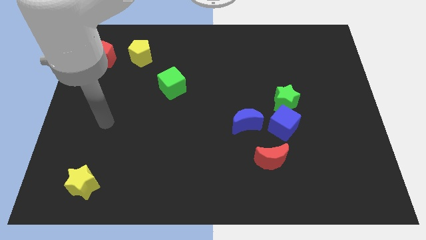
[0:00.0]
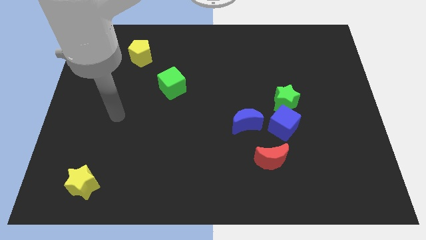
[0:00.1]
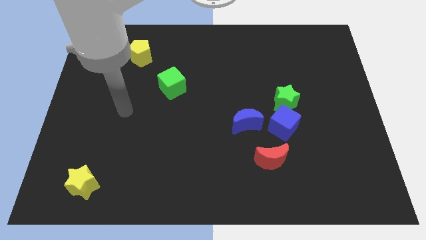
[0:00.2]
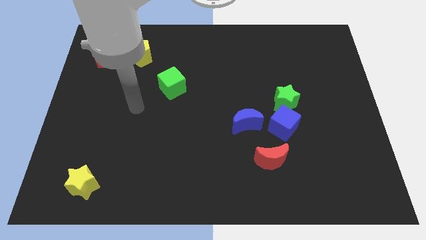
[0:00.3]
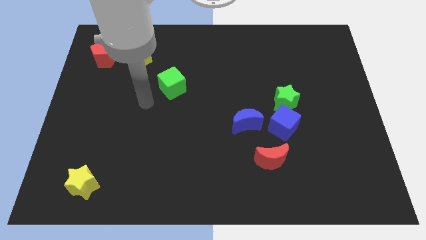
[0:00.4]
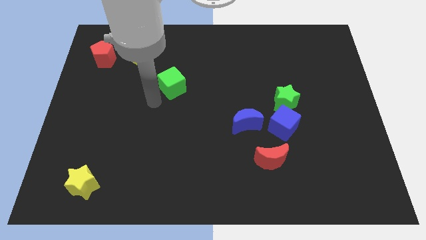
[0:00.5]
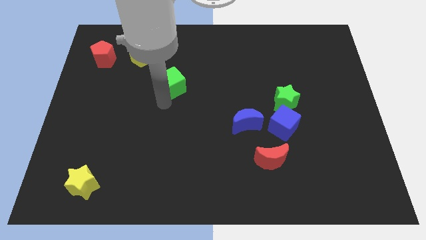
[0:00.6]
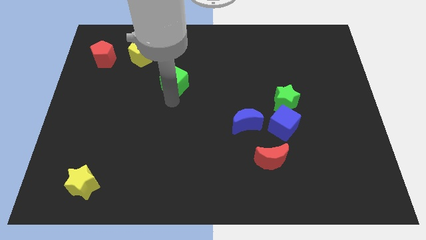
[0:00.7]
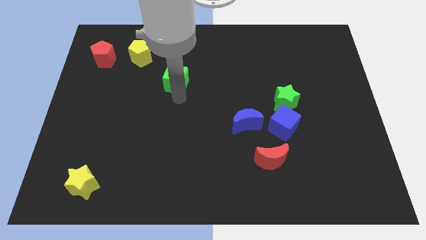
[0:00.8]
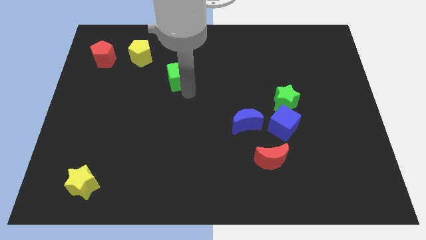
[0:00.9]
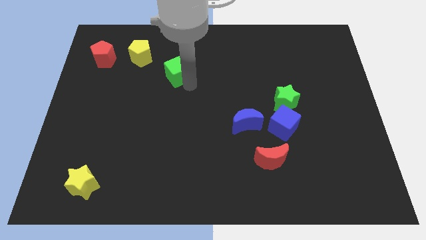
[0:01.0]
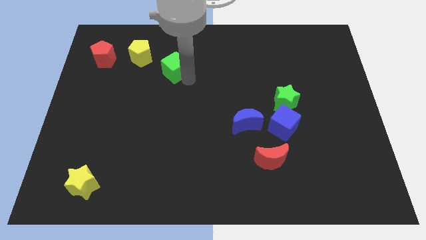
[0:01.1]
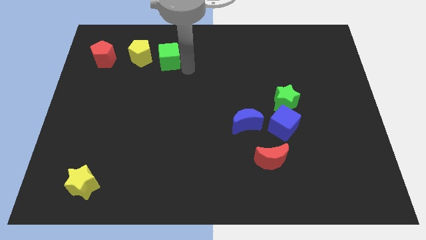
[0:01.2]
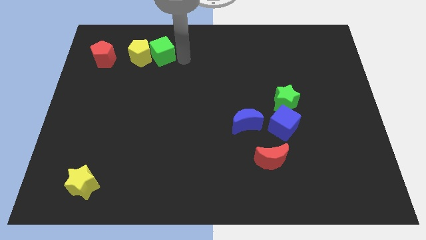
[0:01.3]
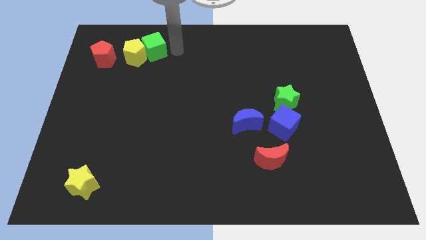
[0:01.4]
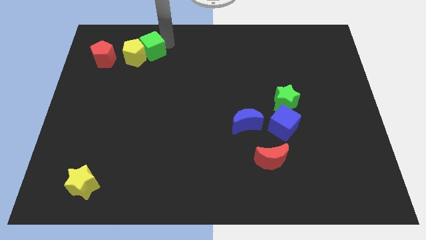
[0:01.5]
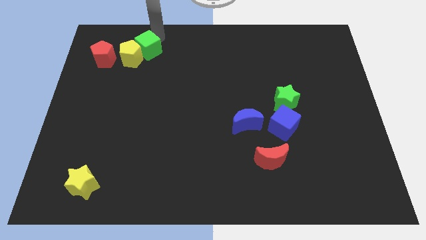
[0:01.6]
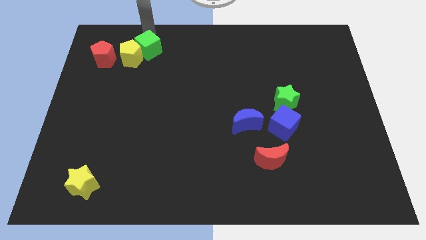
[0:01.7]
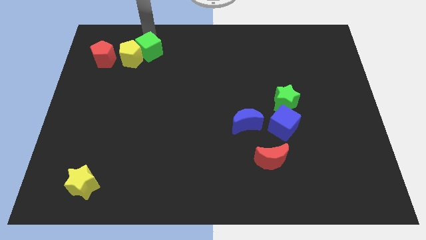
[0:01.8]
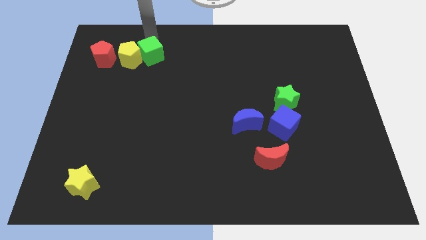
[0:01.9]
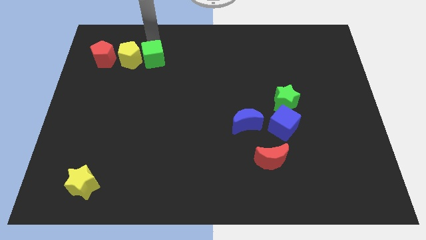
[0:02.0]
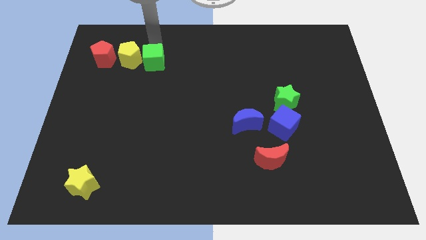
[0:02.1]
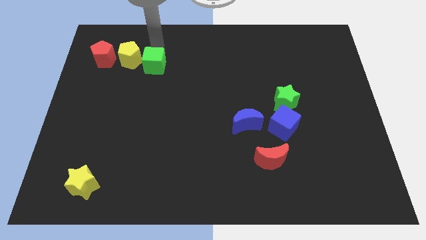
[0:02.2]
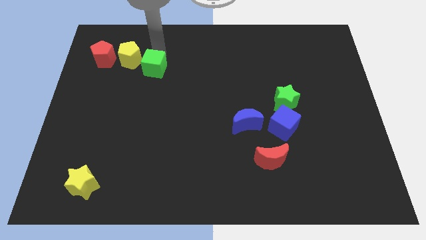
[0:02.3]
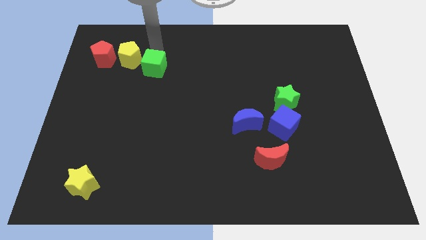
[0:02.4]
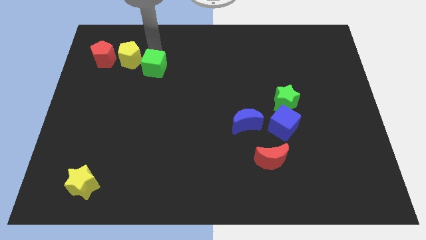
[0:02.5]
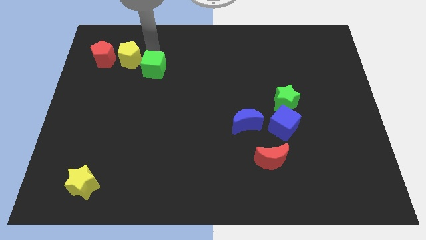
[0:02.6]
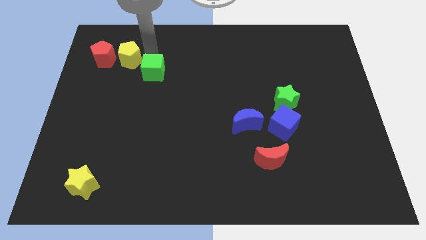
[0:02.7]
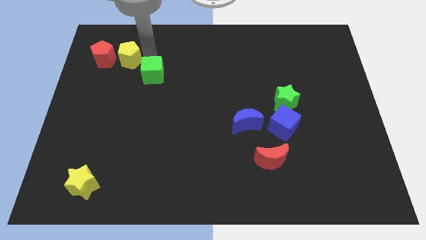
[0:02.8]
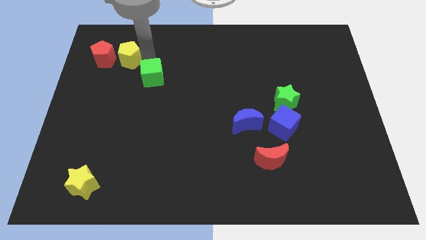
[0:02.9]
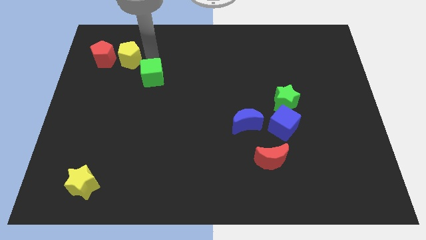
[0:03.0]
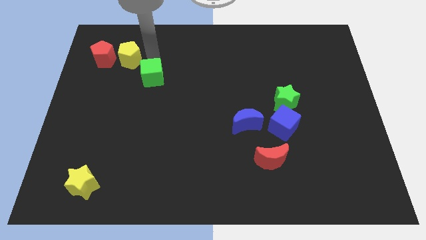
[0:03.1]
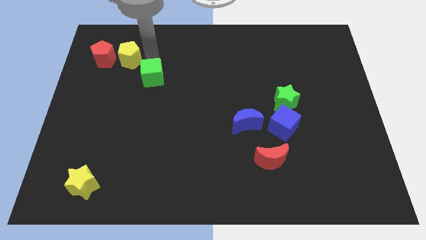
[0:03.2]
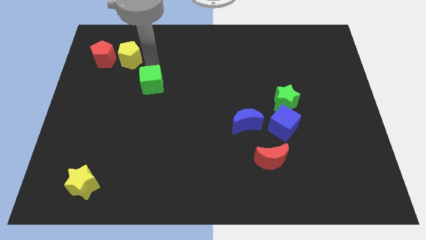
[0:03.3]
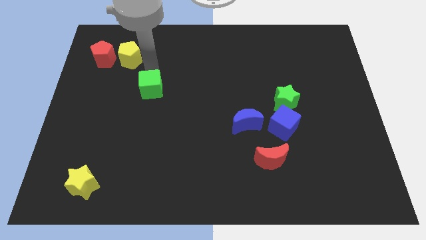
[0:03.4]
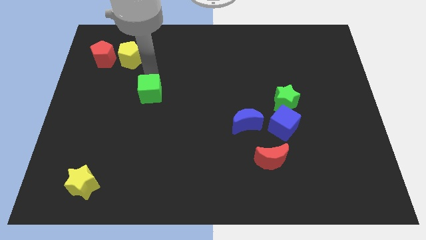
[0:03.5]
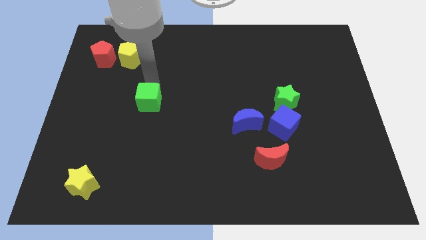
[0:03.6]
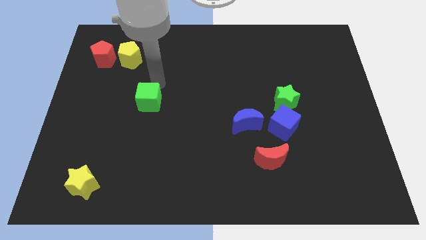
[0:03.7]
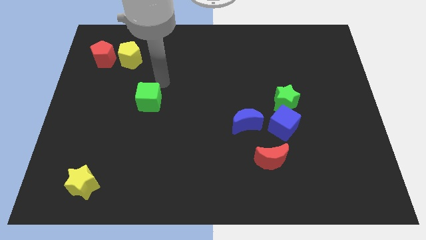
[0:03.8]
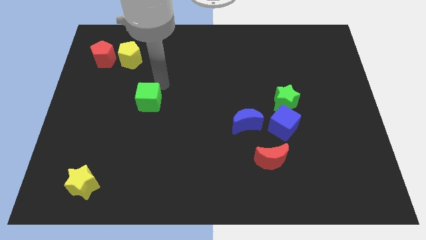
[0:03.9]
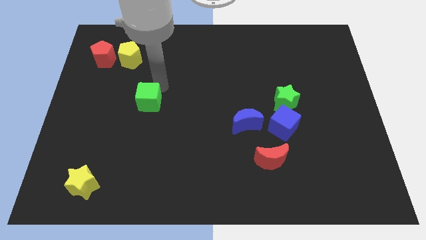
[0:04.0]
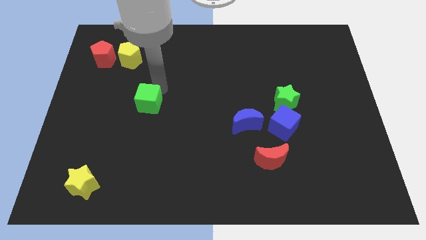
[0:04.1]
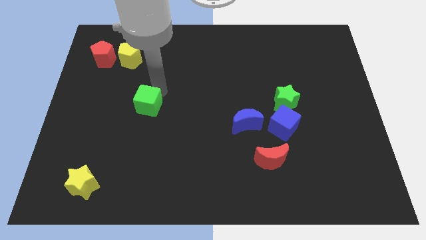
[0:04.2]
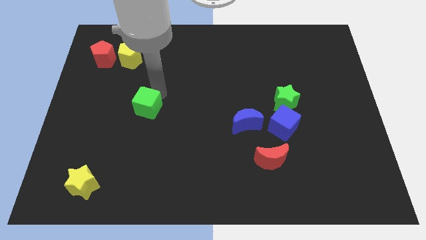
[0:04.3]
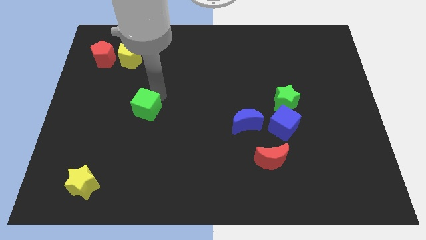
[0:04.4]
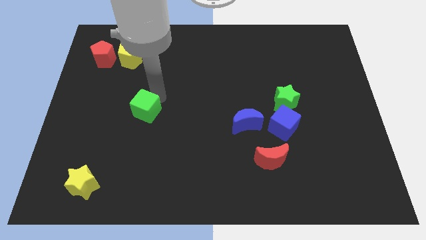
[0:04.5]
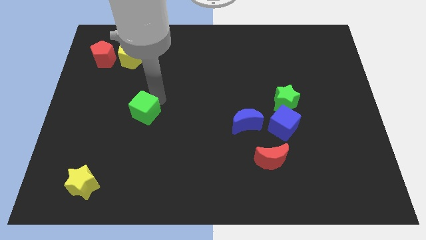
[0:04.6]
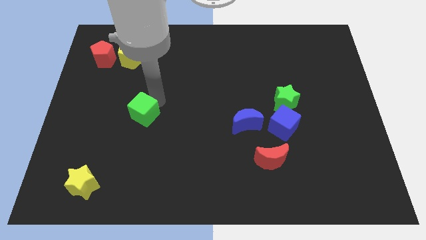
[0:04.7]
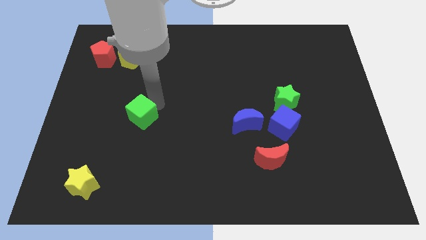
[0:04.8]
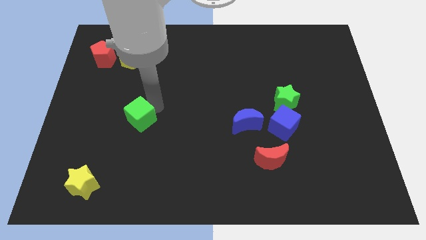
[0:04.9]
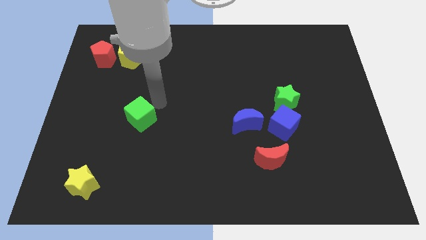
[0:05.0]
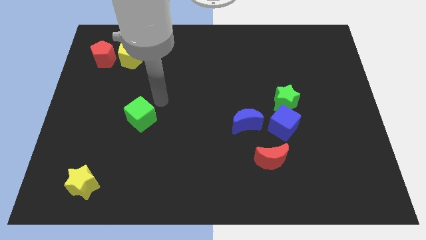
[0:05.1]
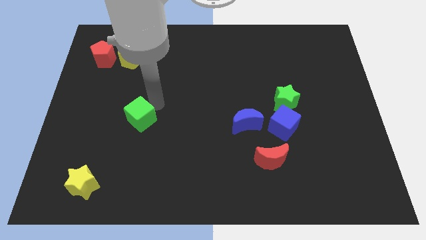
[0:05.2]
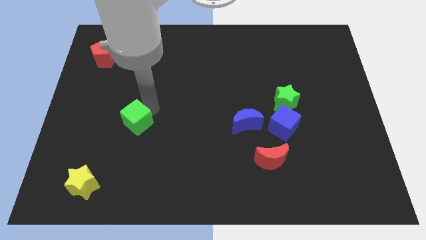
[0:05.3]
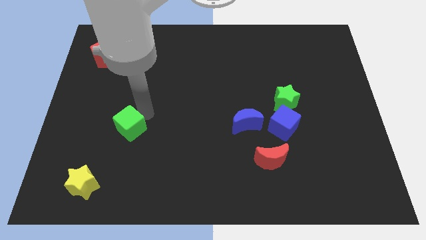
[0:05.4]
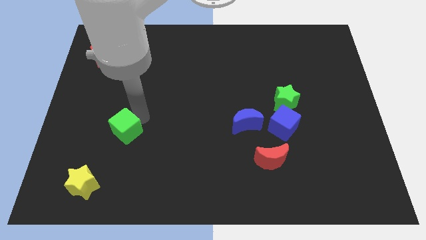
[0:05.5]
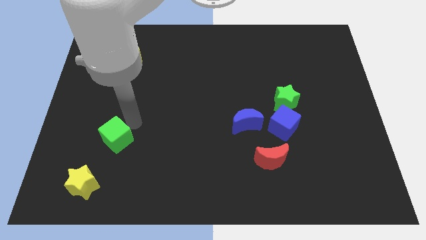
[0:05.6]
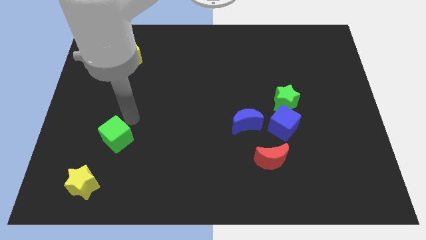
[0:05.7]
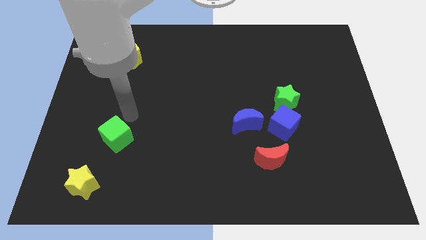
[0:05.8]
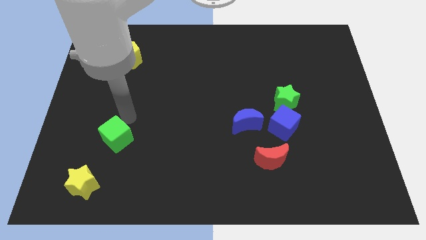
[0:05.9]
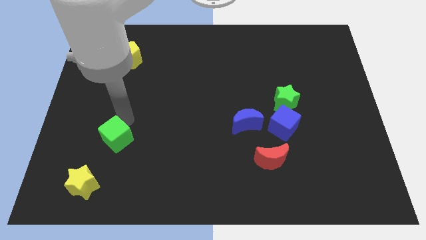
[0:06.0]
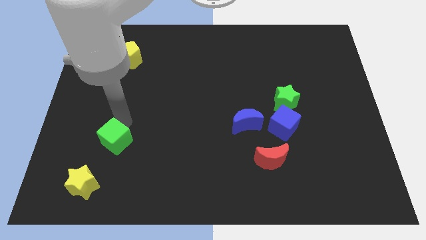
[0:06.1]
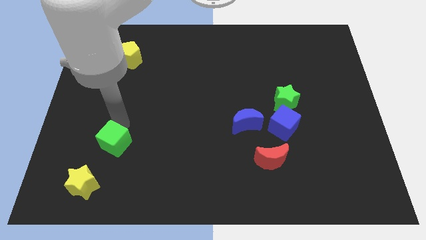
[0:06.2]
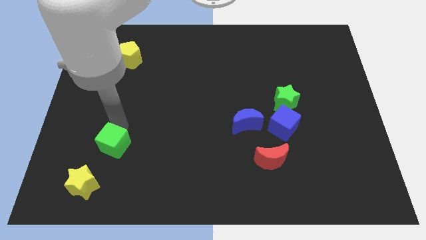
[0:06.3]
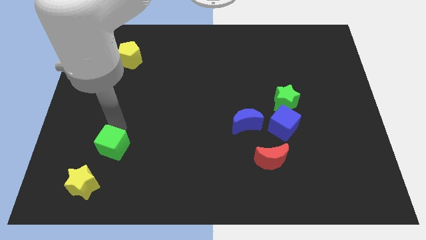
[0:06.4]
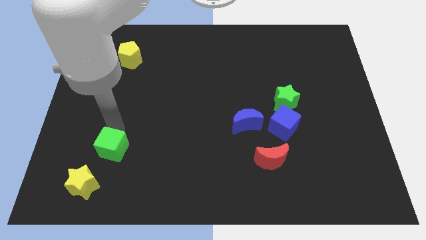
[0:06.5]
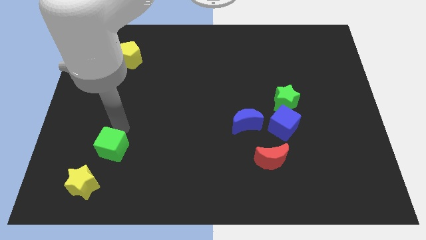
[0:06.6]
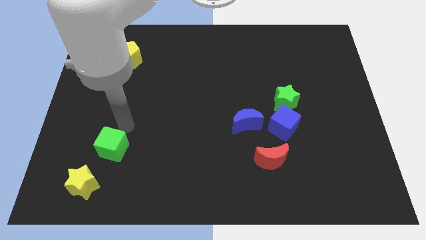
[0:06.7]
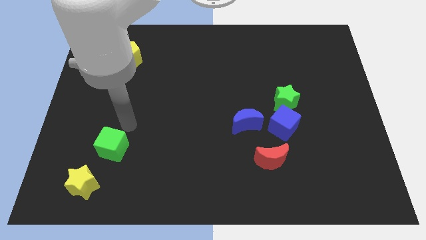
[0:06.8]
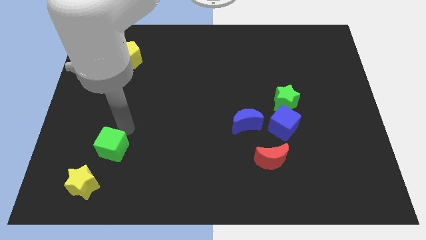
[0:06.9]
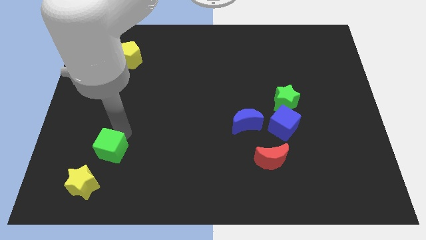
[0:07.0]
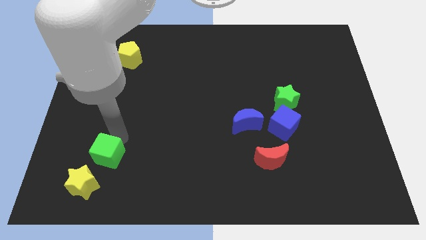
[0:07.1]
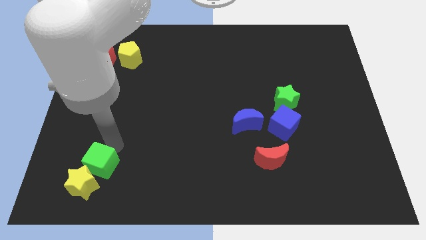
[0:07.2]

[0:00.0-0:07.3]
push the green cube close to the yellow star
